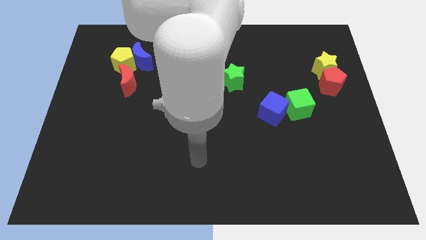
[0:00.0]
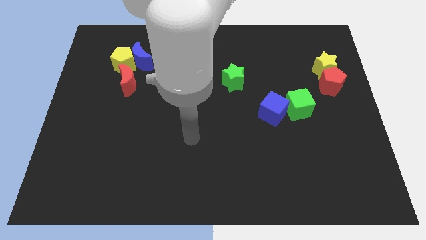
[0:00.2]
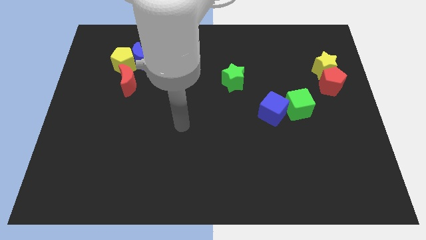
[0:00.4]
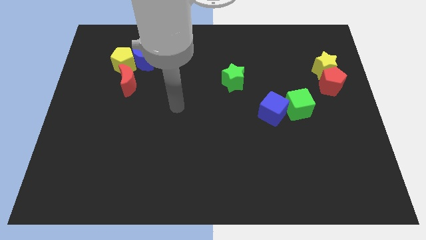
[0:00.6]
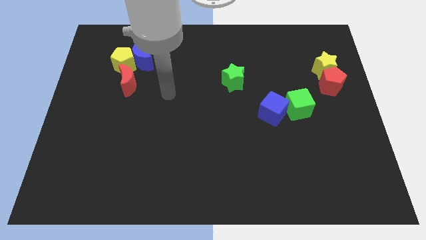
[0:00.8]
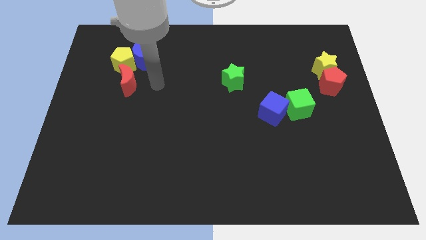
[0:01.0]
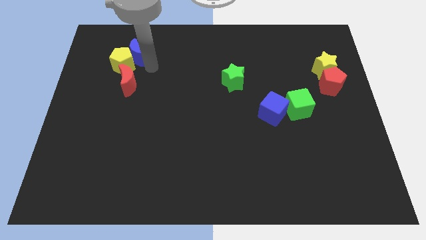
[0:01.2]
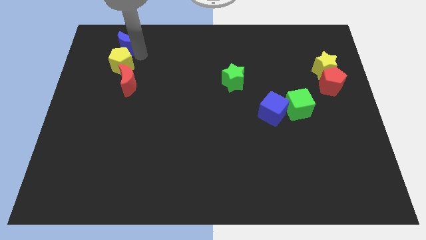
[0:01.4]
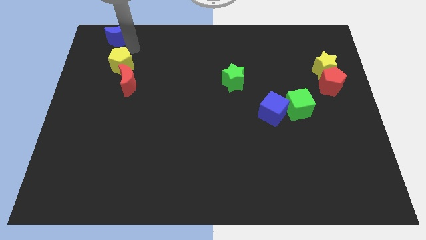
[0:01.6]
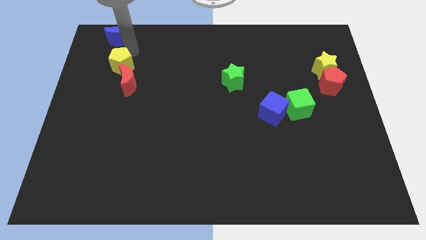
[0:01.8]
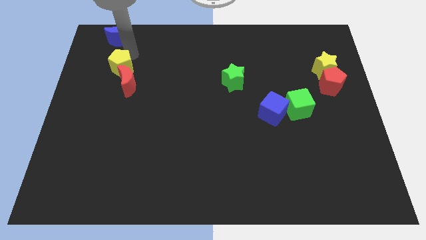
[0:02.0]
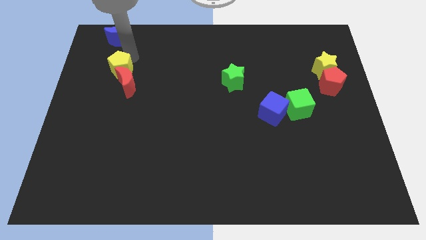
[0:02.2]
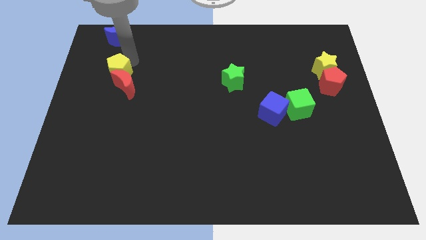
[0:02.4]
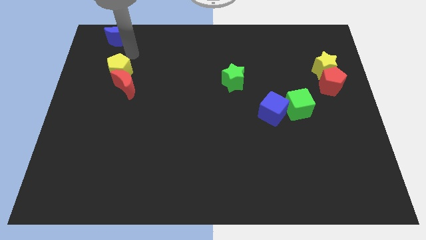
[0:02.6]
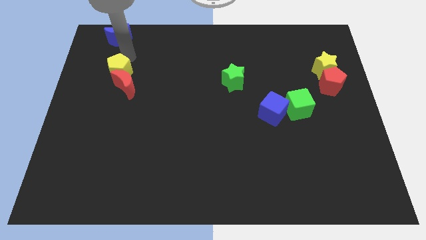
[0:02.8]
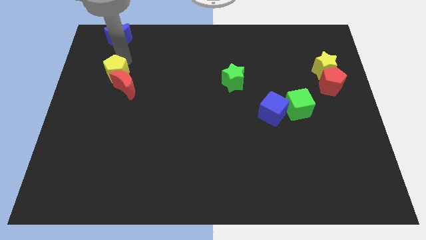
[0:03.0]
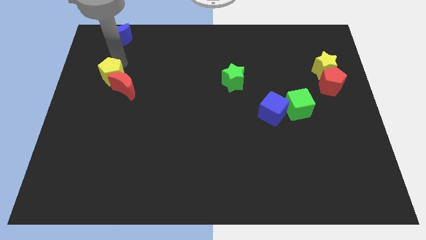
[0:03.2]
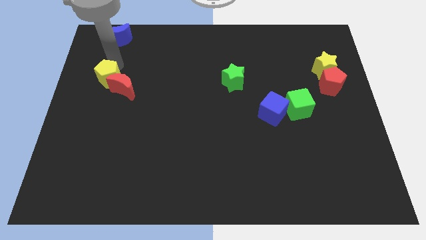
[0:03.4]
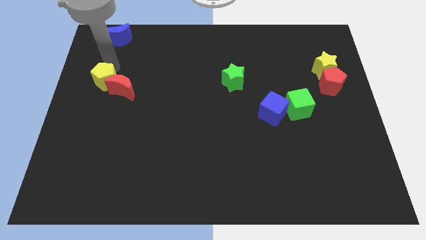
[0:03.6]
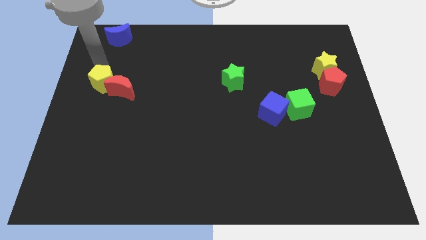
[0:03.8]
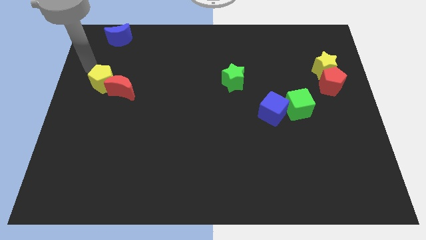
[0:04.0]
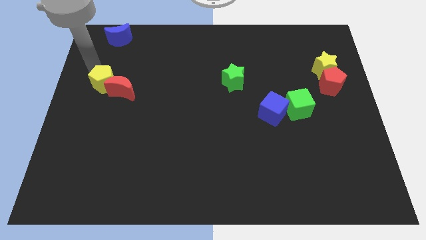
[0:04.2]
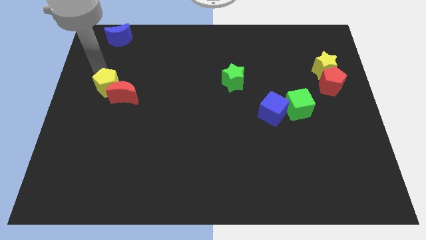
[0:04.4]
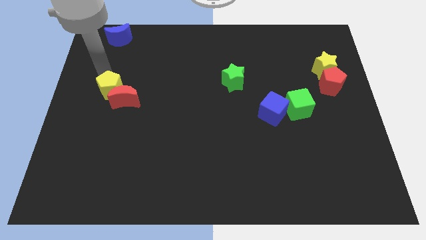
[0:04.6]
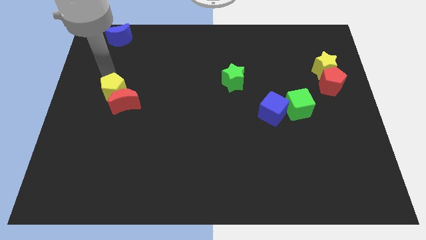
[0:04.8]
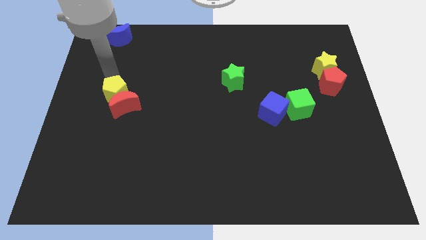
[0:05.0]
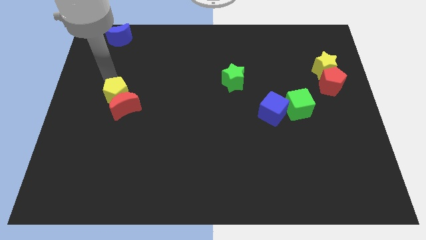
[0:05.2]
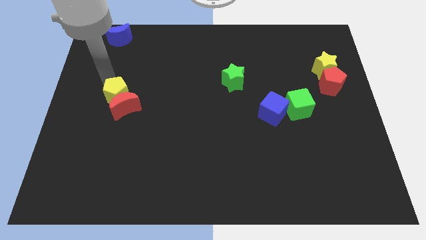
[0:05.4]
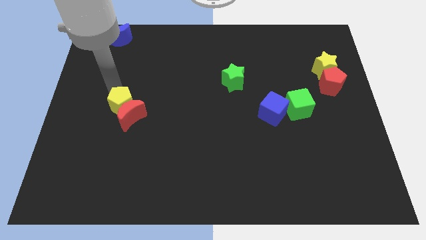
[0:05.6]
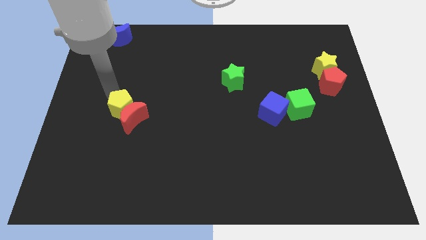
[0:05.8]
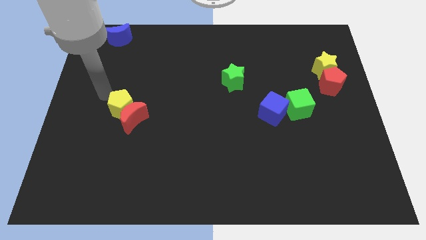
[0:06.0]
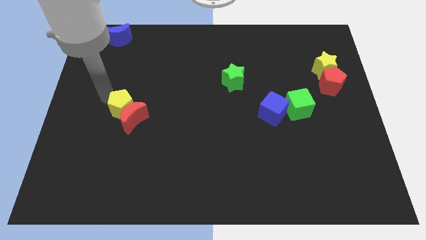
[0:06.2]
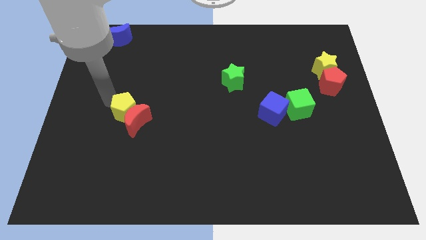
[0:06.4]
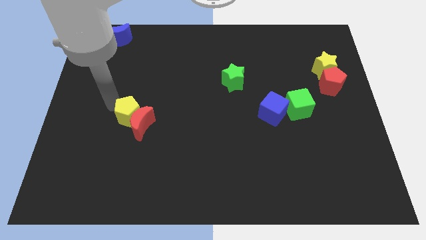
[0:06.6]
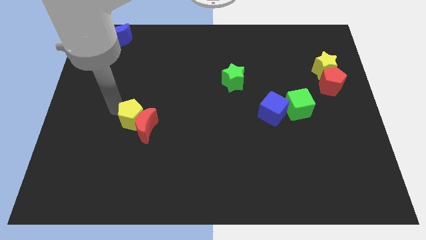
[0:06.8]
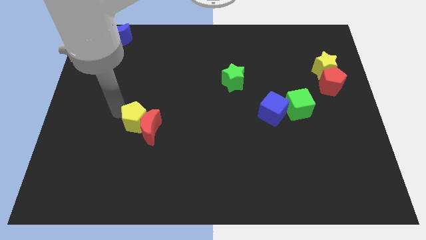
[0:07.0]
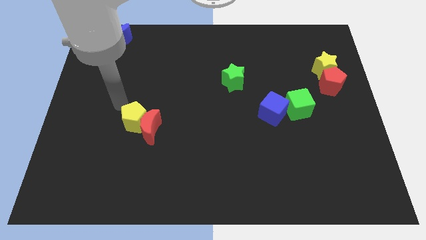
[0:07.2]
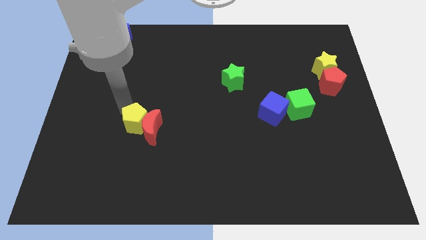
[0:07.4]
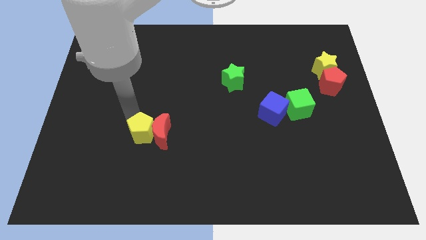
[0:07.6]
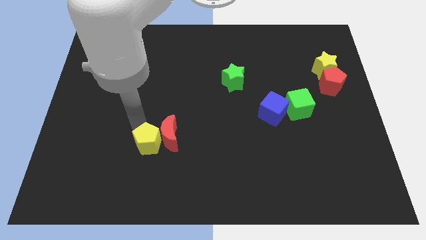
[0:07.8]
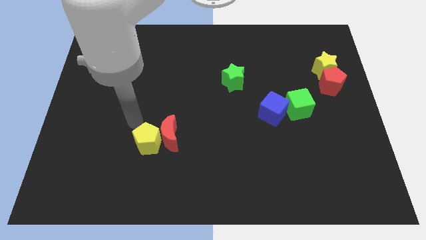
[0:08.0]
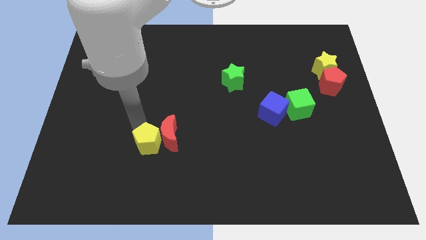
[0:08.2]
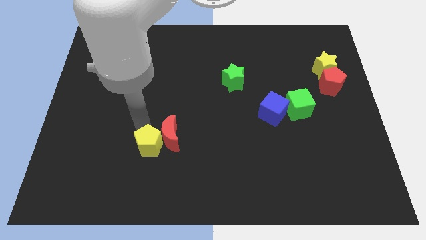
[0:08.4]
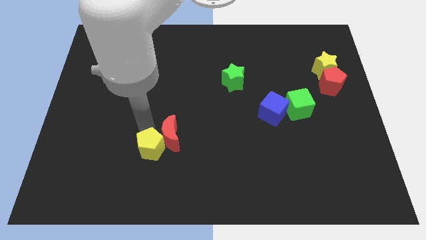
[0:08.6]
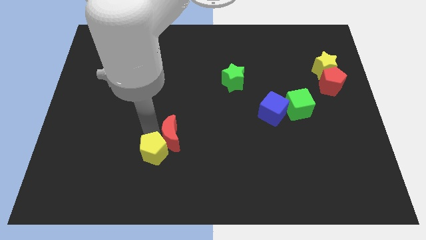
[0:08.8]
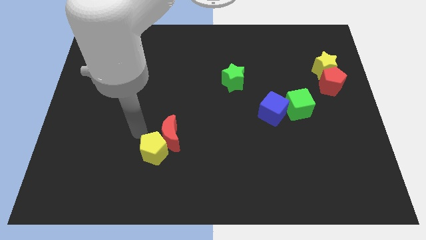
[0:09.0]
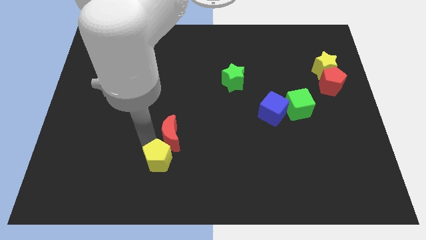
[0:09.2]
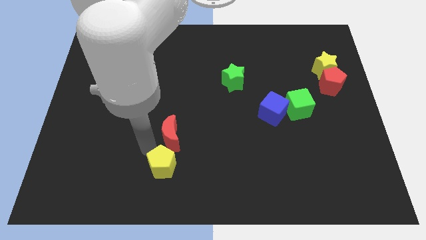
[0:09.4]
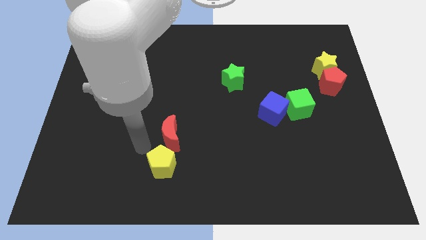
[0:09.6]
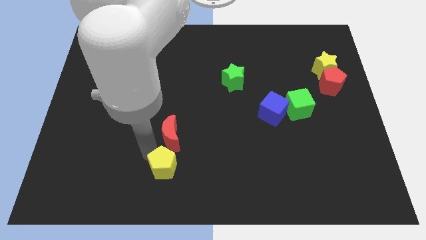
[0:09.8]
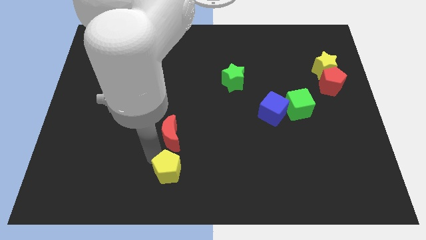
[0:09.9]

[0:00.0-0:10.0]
move the yellow pentagon to the bottom
